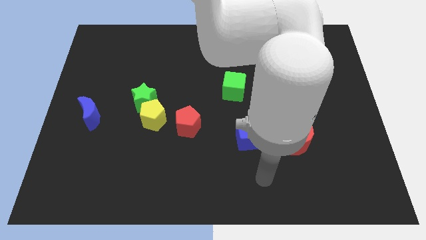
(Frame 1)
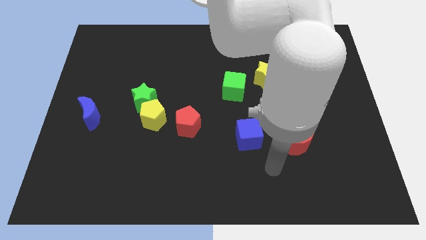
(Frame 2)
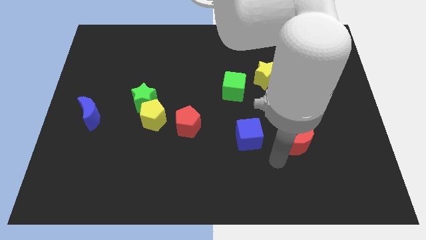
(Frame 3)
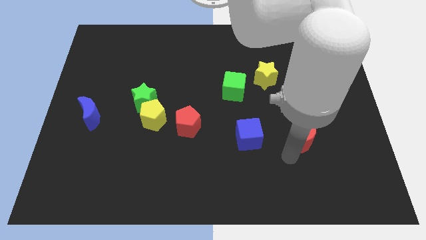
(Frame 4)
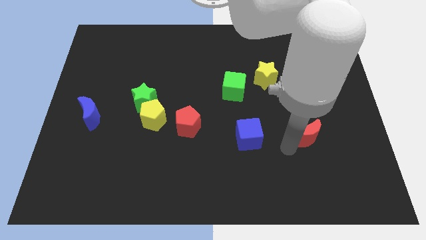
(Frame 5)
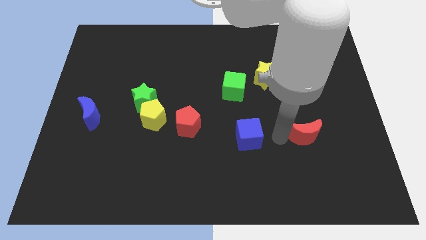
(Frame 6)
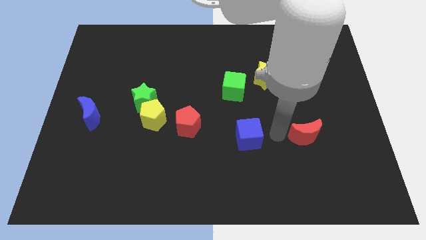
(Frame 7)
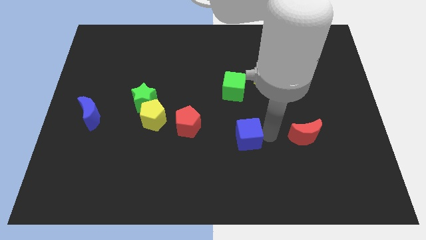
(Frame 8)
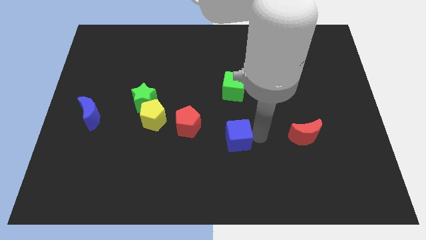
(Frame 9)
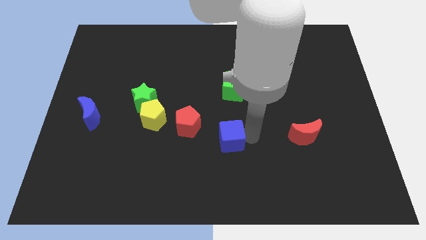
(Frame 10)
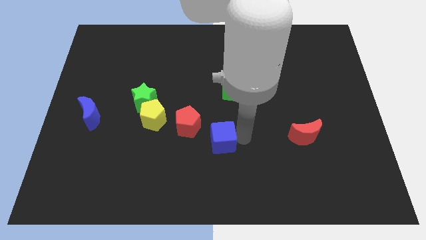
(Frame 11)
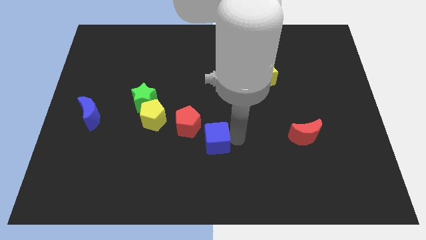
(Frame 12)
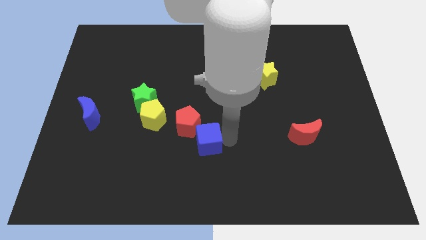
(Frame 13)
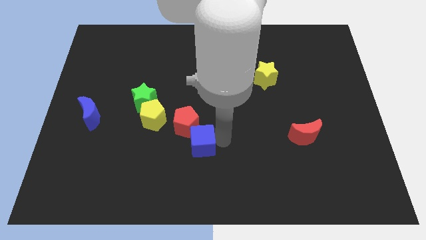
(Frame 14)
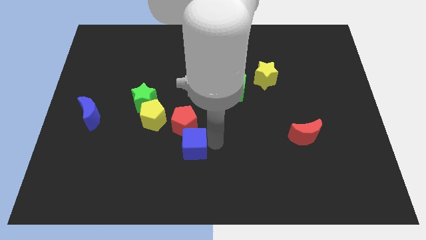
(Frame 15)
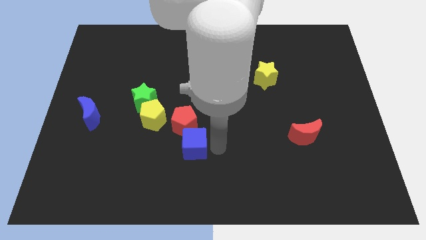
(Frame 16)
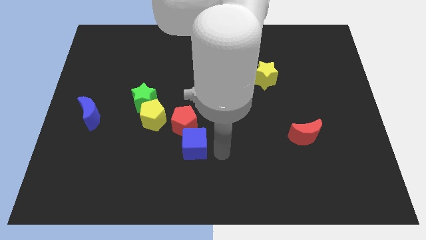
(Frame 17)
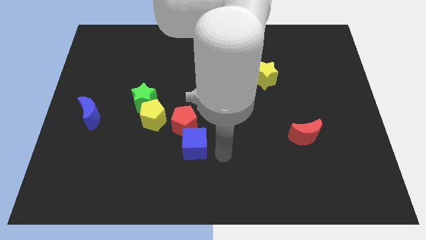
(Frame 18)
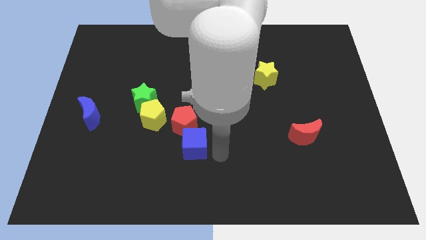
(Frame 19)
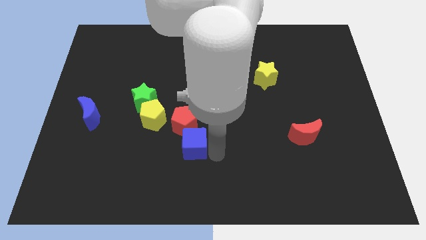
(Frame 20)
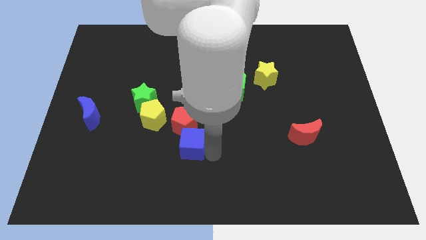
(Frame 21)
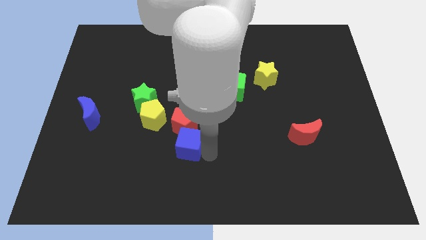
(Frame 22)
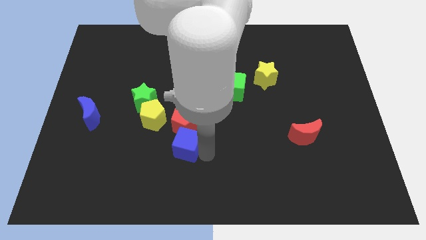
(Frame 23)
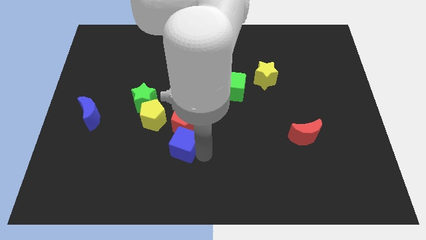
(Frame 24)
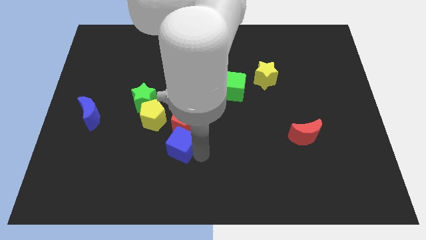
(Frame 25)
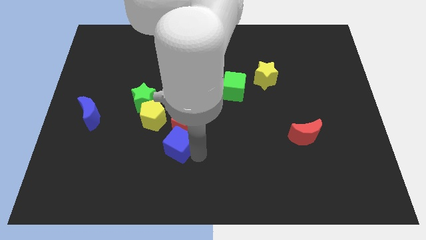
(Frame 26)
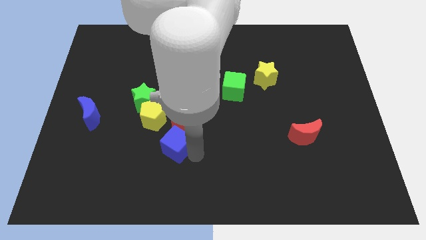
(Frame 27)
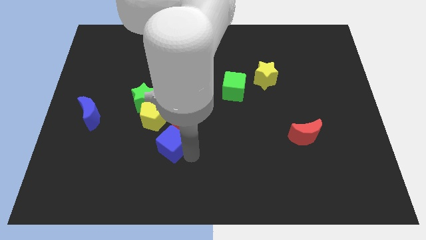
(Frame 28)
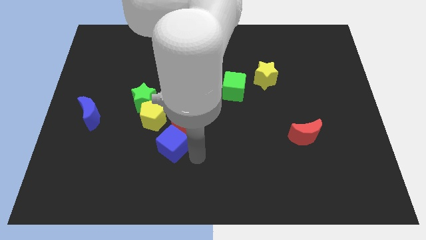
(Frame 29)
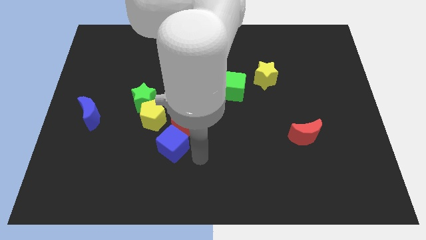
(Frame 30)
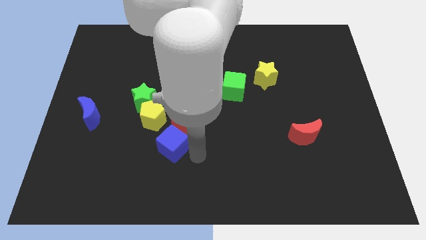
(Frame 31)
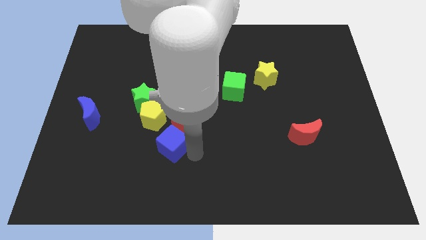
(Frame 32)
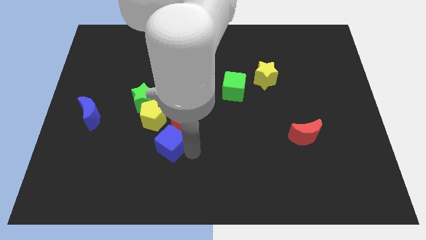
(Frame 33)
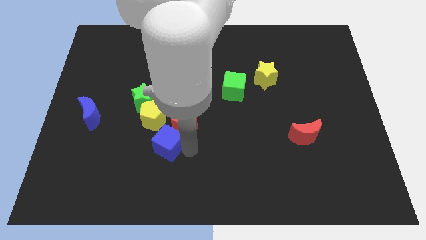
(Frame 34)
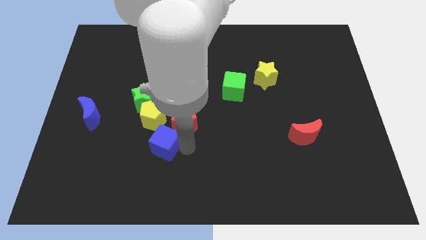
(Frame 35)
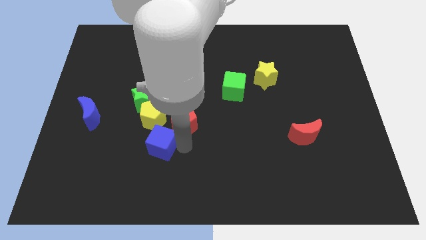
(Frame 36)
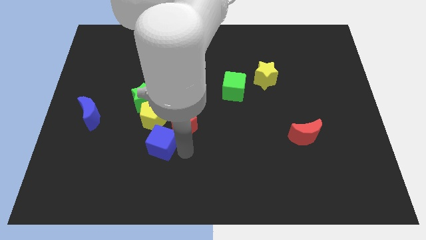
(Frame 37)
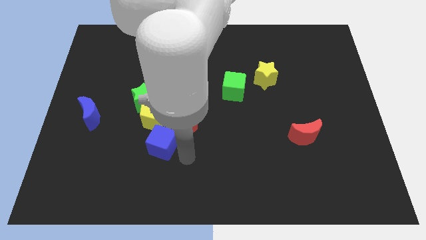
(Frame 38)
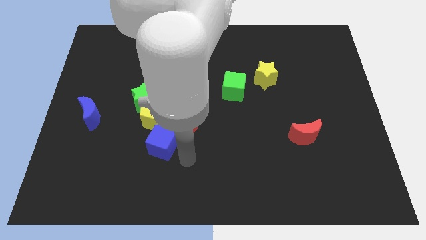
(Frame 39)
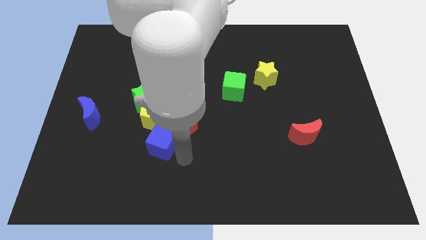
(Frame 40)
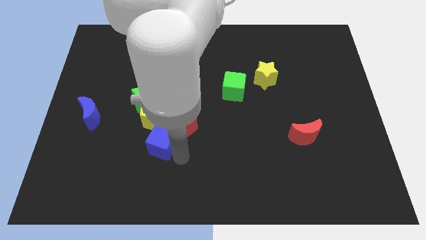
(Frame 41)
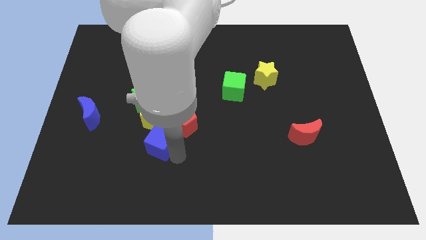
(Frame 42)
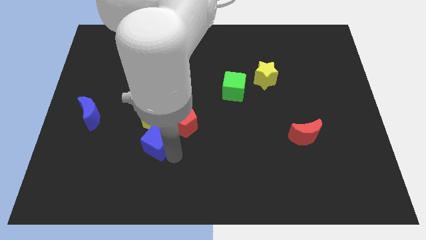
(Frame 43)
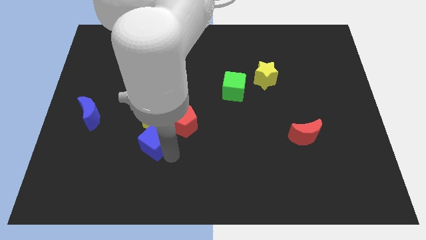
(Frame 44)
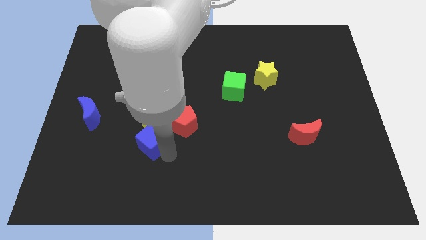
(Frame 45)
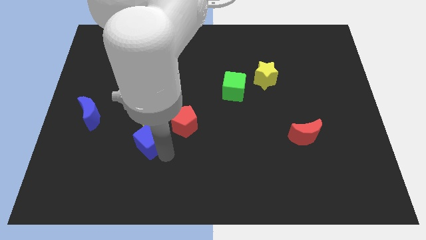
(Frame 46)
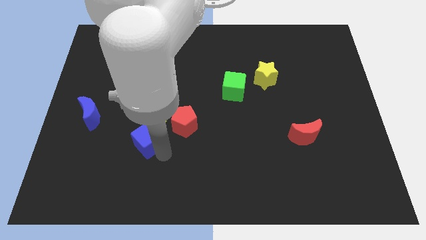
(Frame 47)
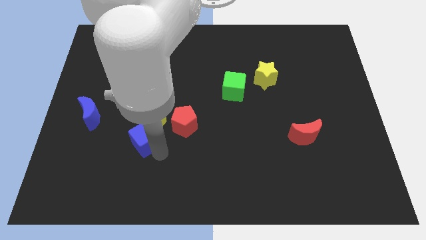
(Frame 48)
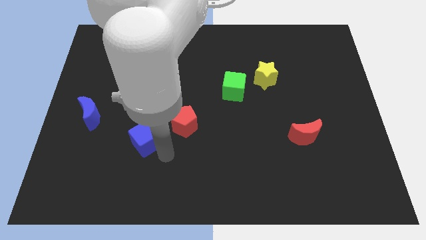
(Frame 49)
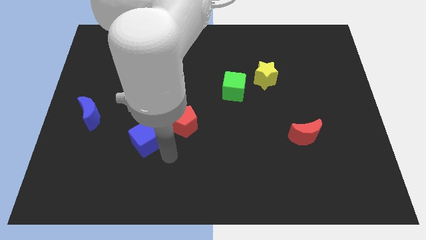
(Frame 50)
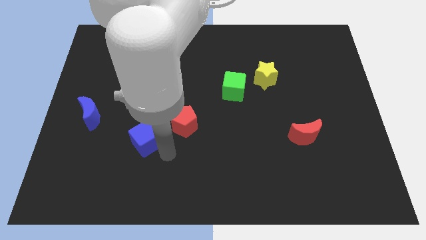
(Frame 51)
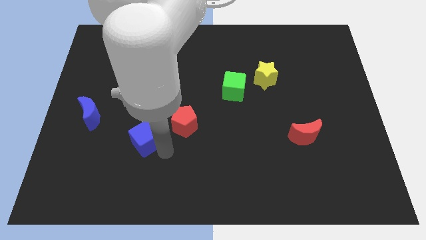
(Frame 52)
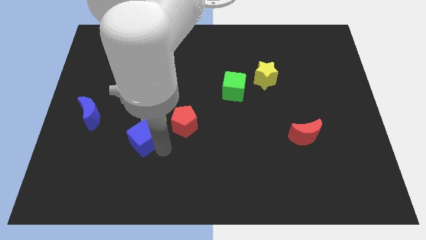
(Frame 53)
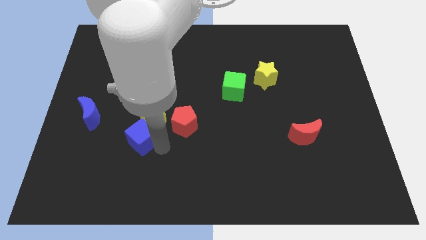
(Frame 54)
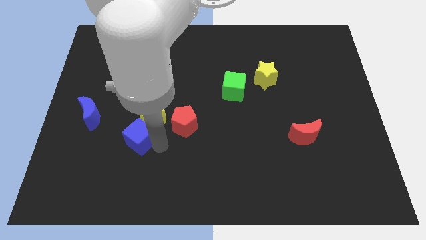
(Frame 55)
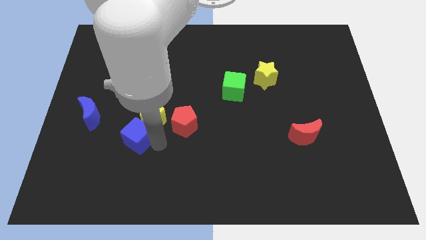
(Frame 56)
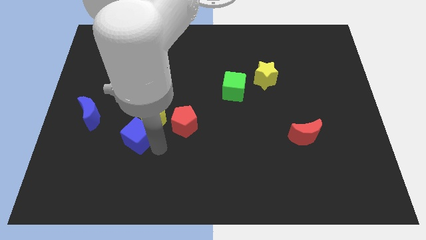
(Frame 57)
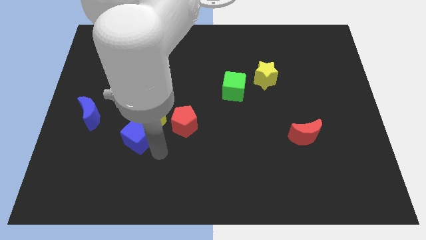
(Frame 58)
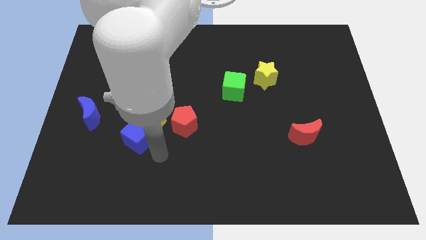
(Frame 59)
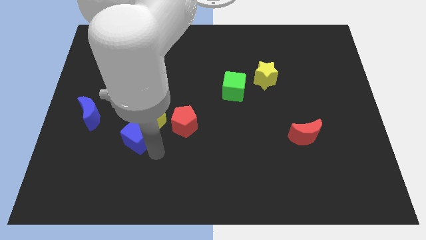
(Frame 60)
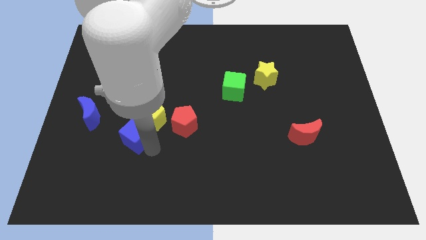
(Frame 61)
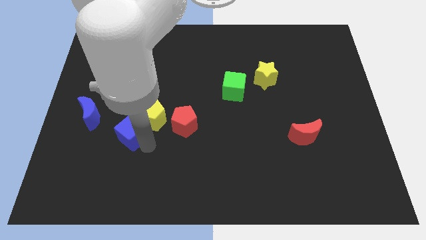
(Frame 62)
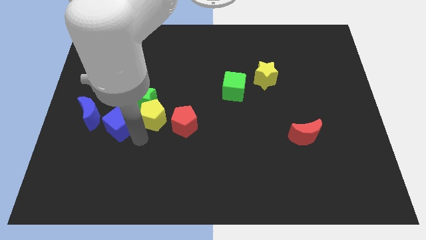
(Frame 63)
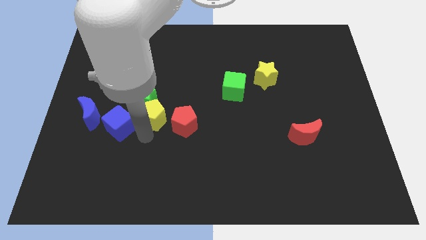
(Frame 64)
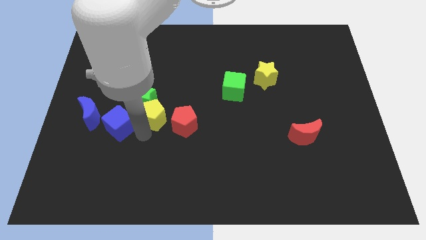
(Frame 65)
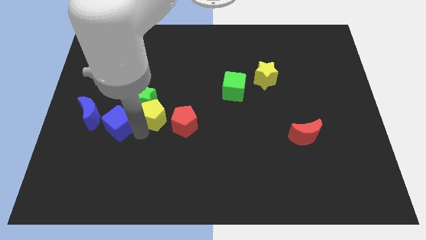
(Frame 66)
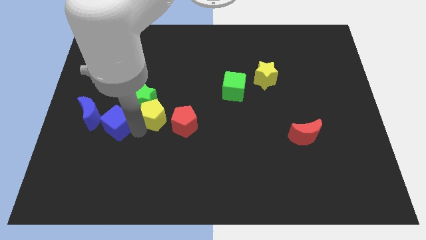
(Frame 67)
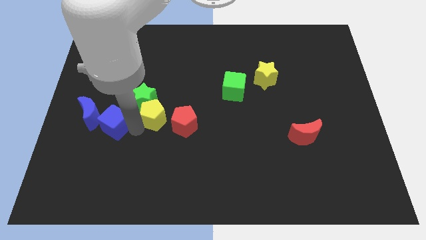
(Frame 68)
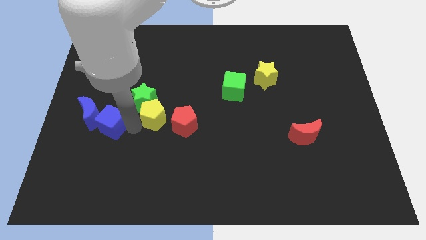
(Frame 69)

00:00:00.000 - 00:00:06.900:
move the blue cube towards the blue moon
